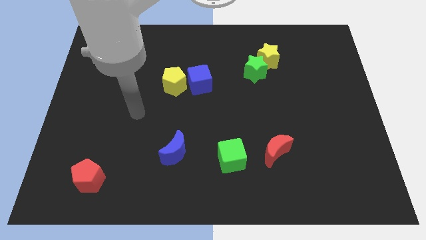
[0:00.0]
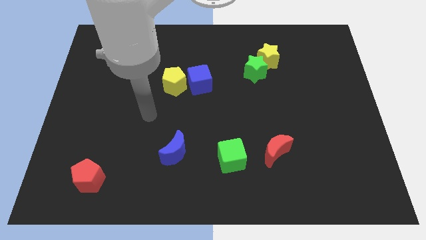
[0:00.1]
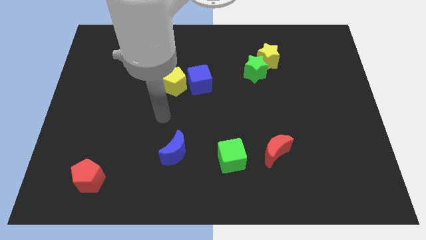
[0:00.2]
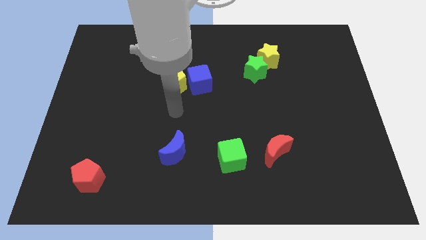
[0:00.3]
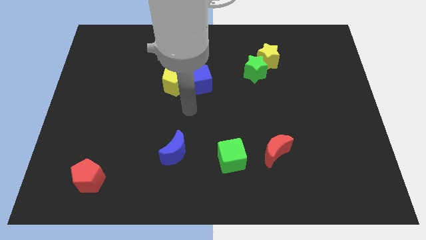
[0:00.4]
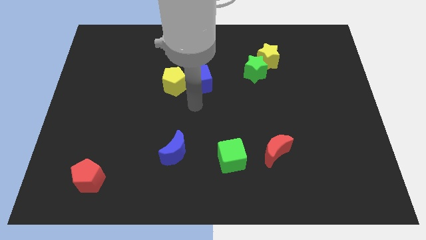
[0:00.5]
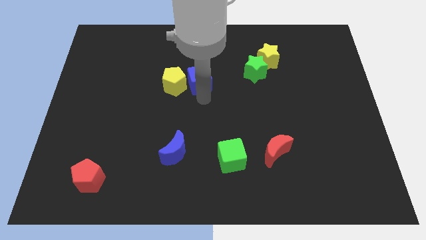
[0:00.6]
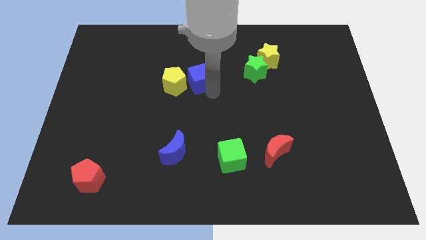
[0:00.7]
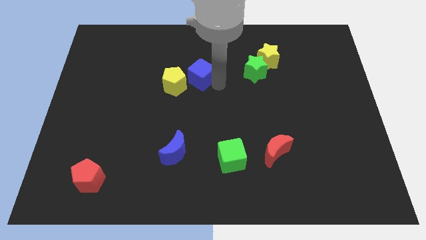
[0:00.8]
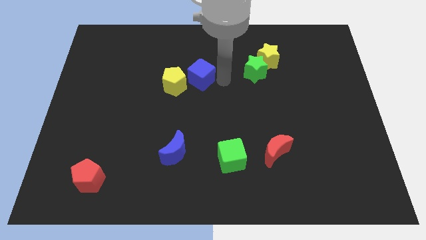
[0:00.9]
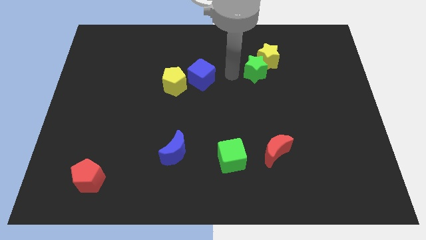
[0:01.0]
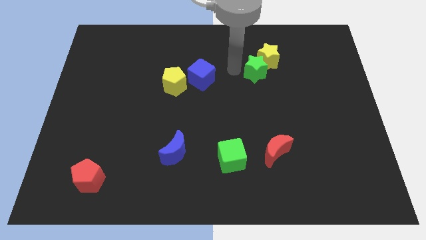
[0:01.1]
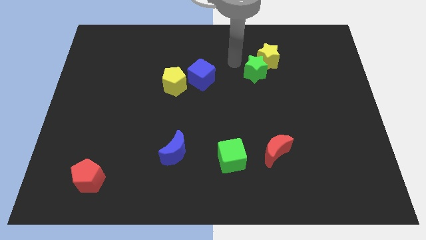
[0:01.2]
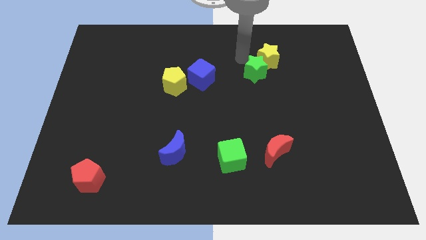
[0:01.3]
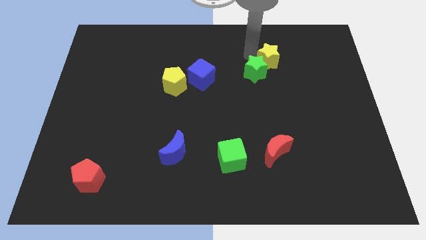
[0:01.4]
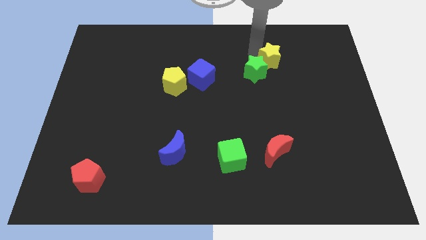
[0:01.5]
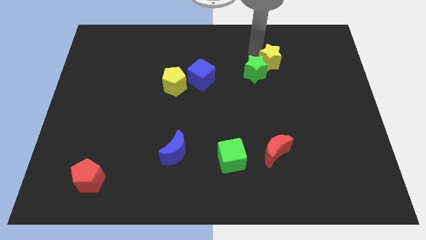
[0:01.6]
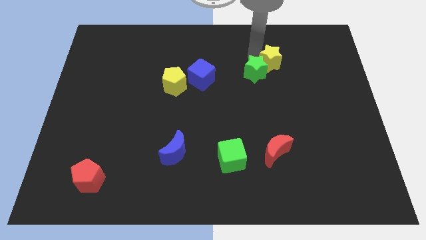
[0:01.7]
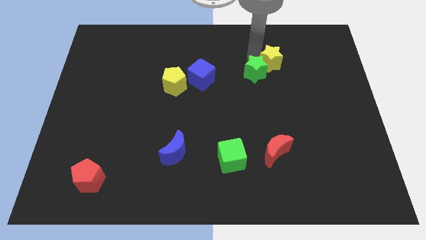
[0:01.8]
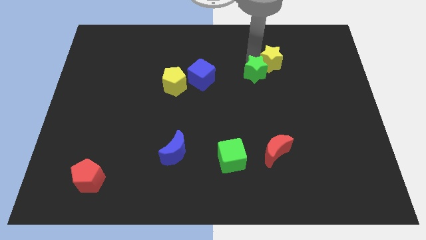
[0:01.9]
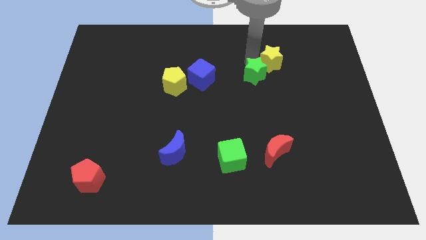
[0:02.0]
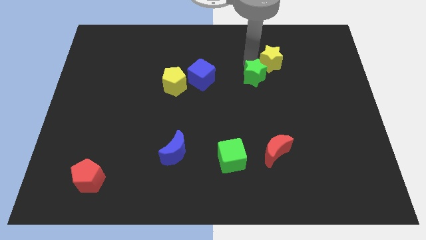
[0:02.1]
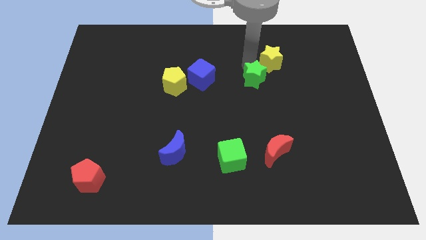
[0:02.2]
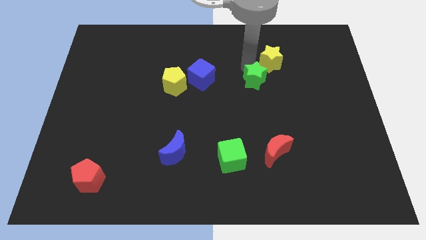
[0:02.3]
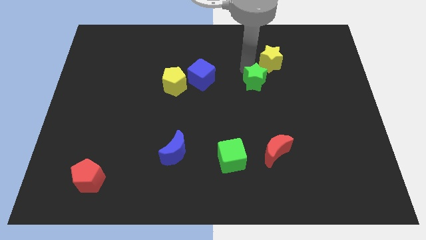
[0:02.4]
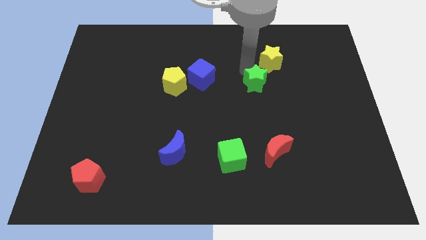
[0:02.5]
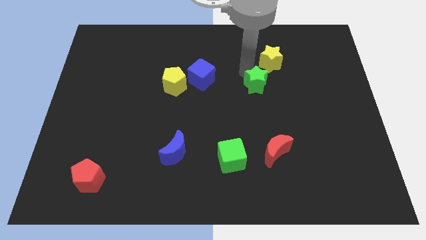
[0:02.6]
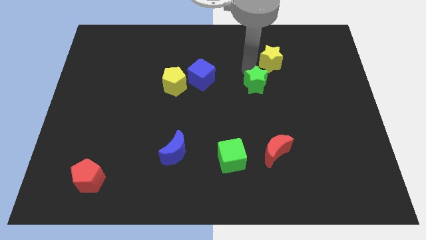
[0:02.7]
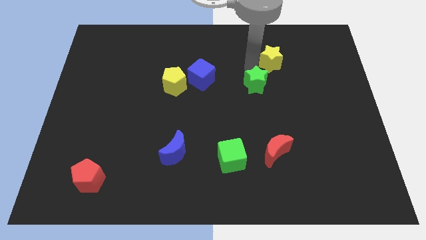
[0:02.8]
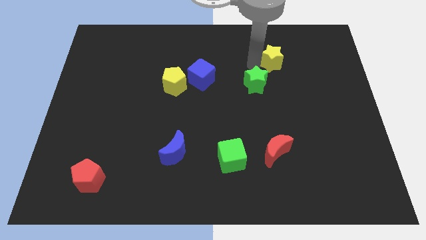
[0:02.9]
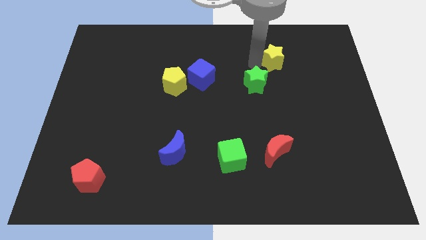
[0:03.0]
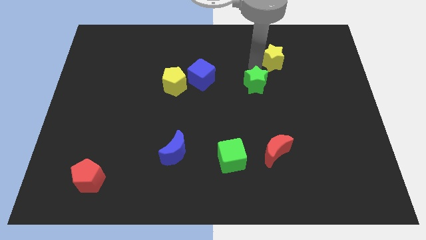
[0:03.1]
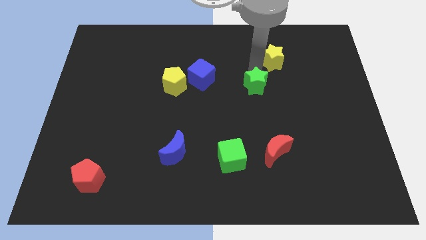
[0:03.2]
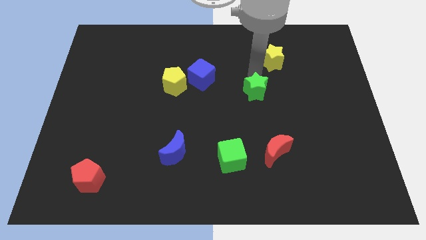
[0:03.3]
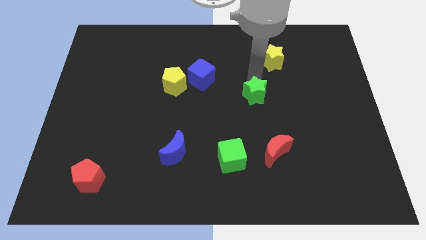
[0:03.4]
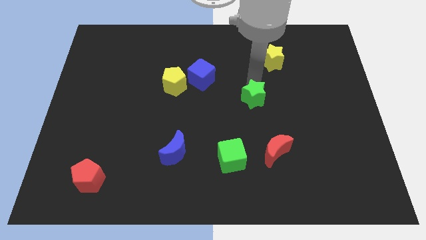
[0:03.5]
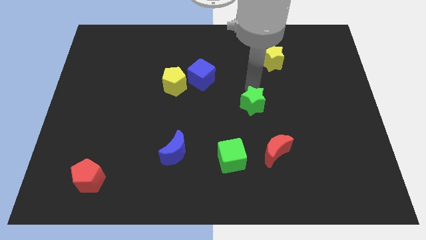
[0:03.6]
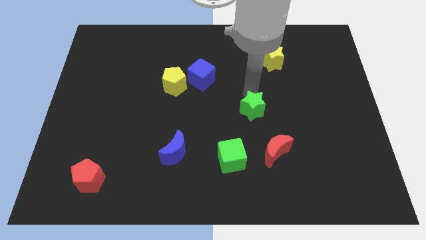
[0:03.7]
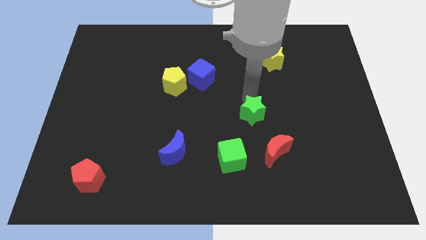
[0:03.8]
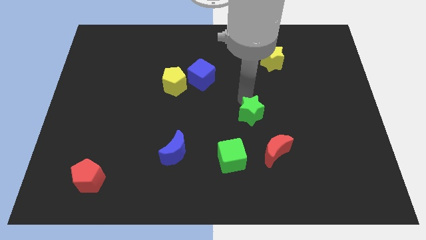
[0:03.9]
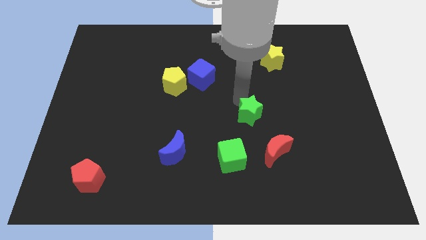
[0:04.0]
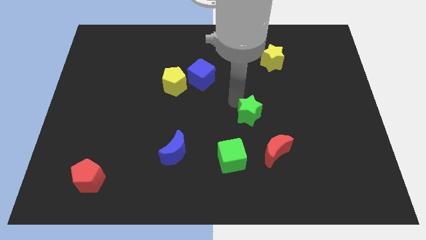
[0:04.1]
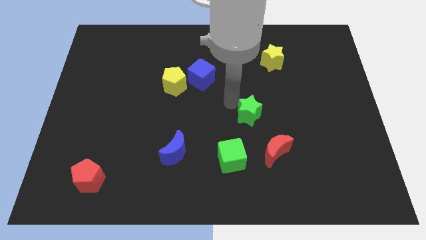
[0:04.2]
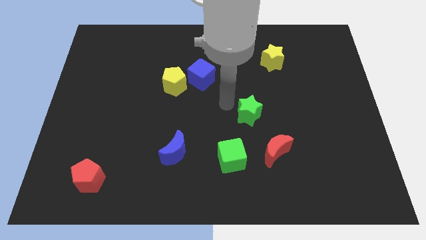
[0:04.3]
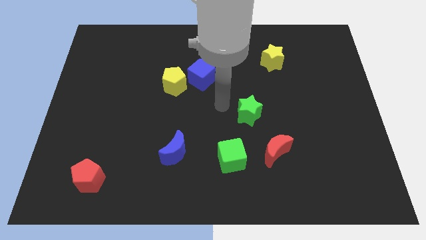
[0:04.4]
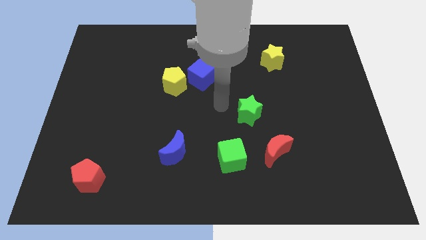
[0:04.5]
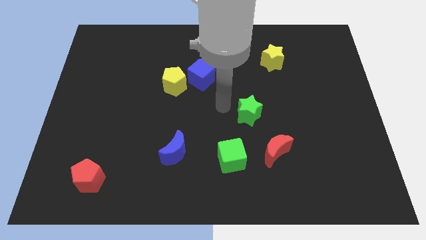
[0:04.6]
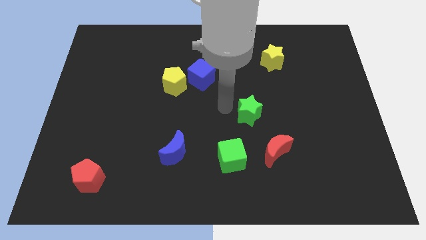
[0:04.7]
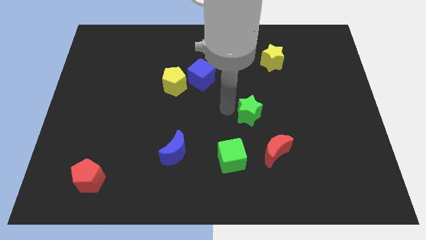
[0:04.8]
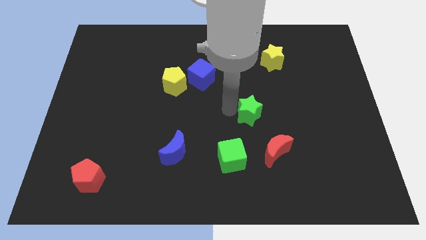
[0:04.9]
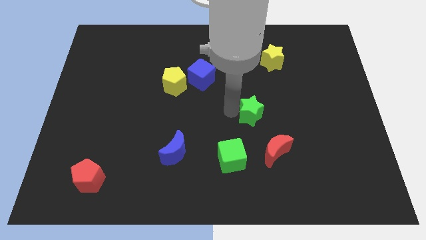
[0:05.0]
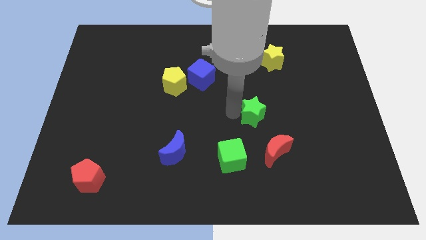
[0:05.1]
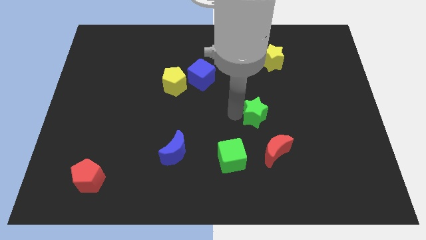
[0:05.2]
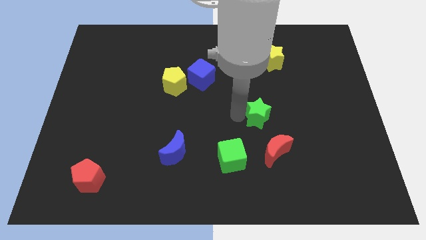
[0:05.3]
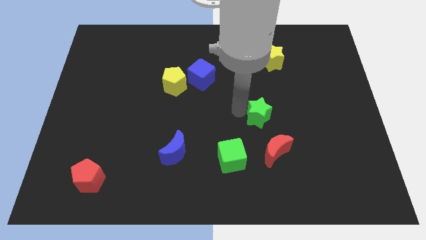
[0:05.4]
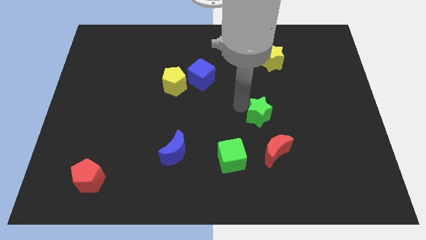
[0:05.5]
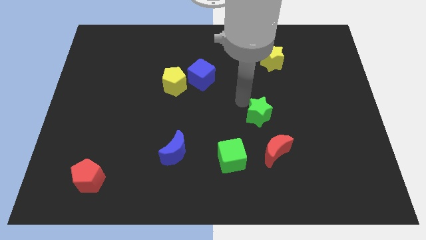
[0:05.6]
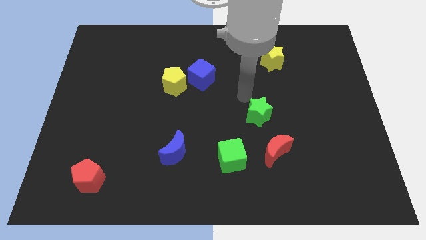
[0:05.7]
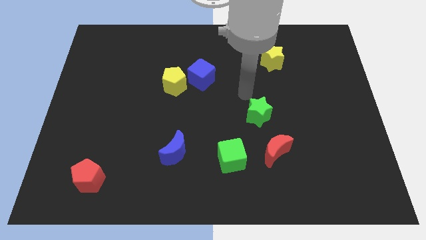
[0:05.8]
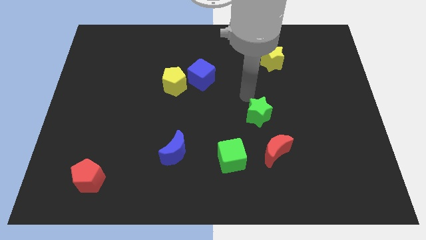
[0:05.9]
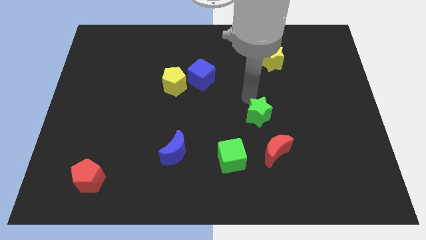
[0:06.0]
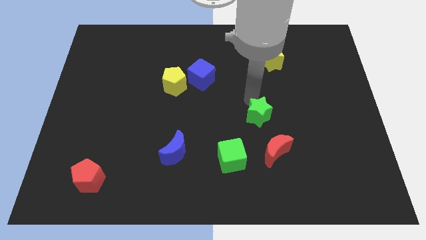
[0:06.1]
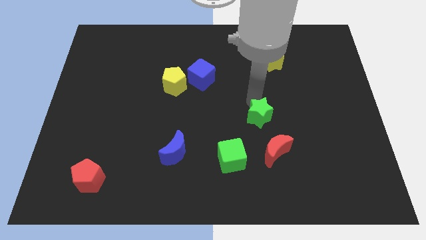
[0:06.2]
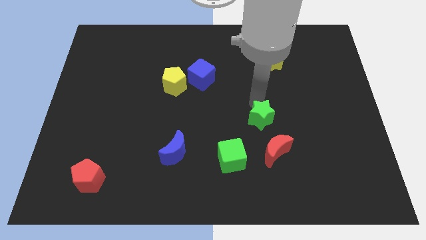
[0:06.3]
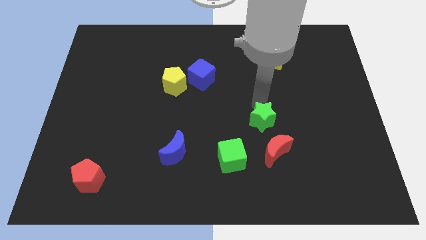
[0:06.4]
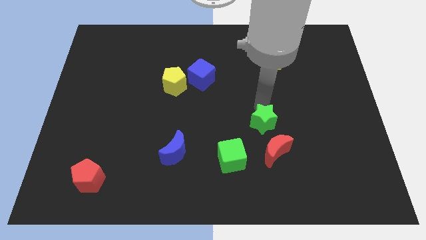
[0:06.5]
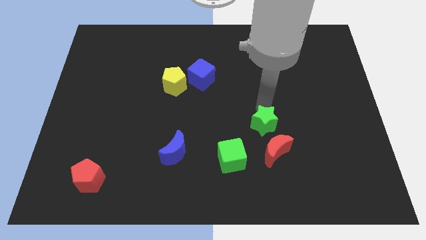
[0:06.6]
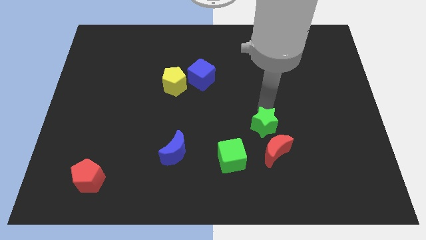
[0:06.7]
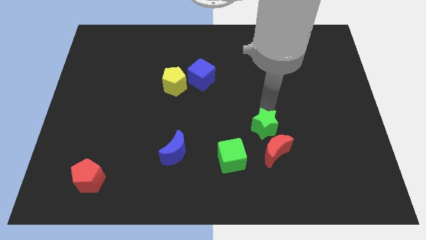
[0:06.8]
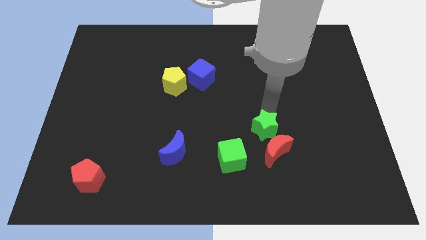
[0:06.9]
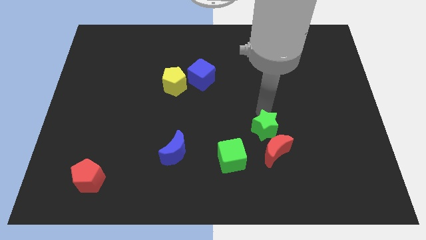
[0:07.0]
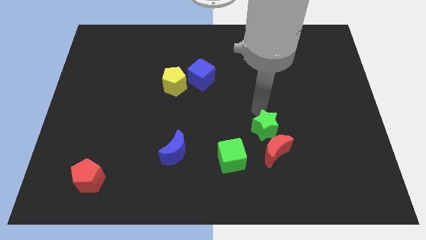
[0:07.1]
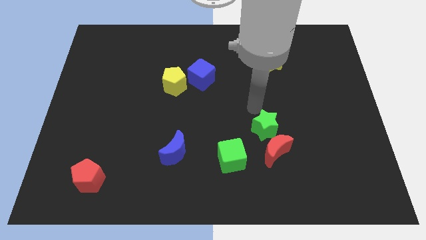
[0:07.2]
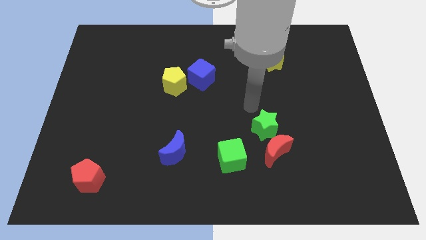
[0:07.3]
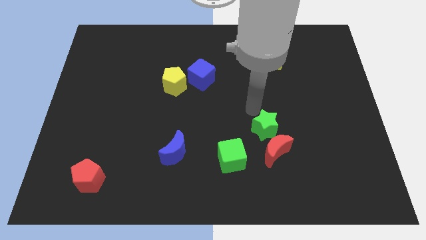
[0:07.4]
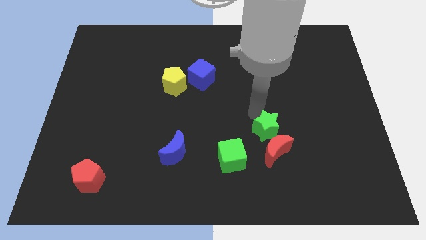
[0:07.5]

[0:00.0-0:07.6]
move the green star next to the red moon
